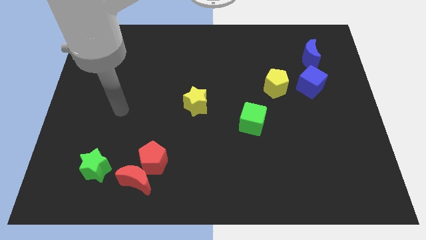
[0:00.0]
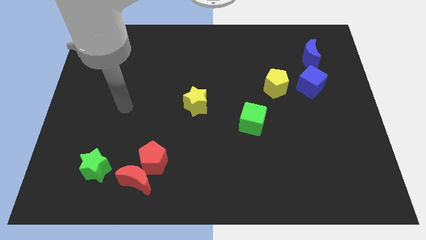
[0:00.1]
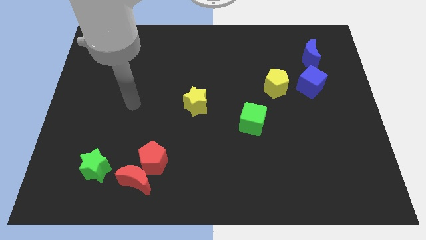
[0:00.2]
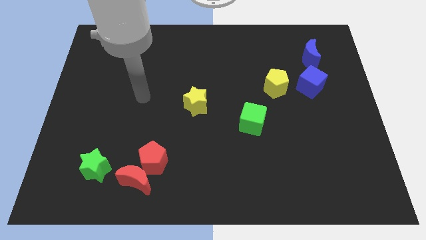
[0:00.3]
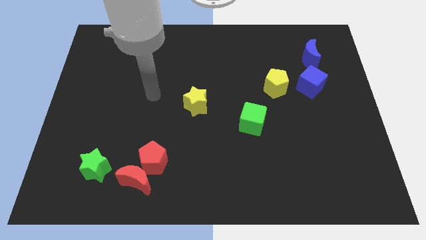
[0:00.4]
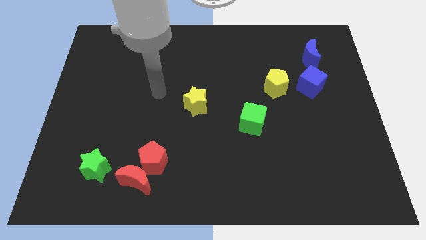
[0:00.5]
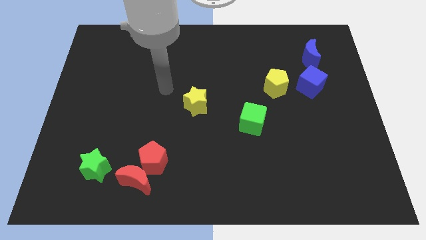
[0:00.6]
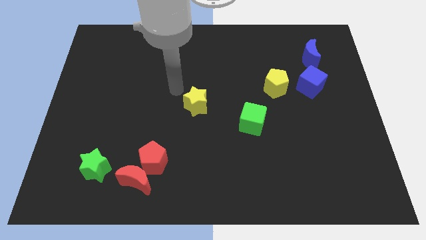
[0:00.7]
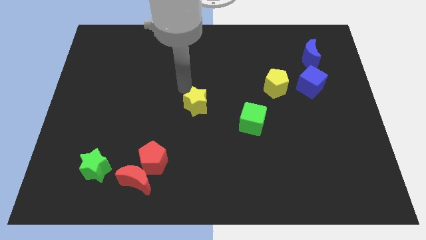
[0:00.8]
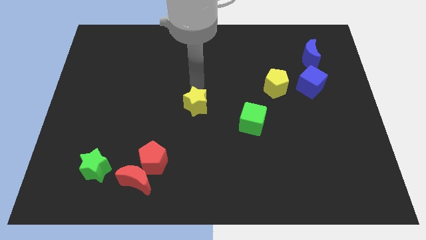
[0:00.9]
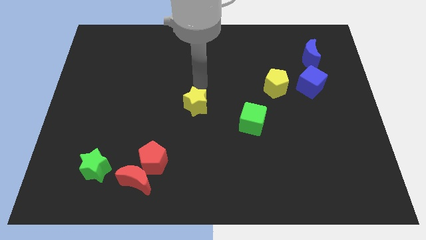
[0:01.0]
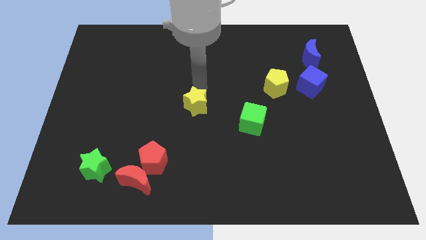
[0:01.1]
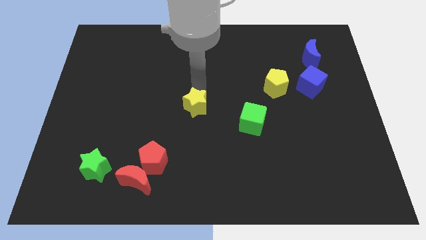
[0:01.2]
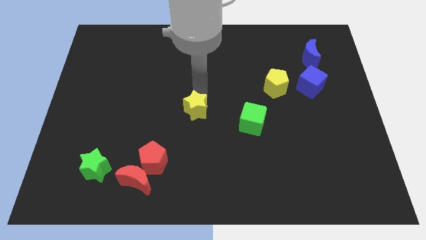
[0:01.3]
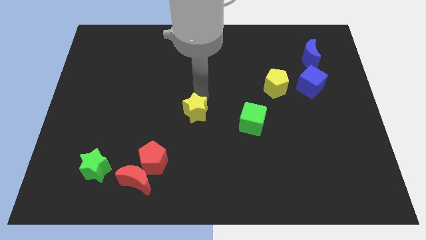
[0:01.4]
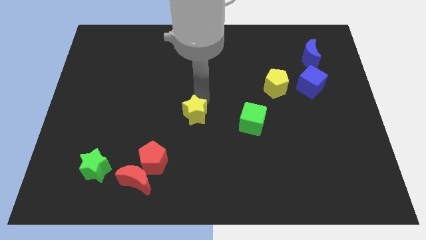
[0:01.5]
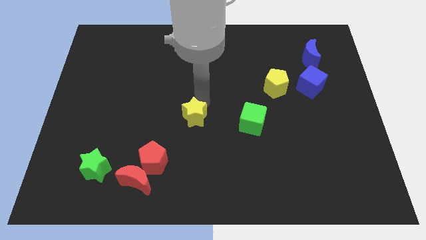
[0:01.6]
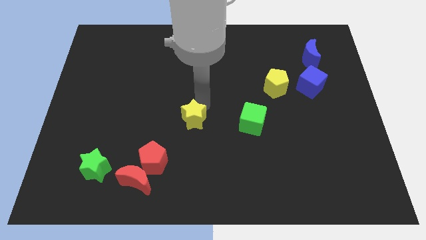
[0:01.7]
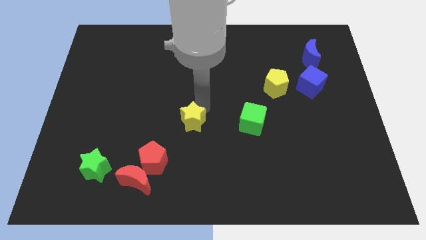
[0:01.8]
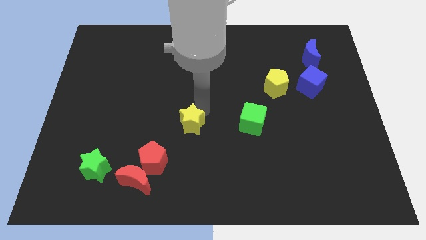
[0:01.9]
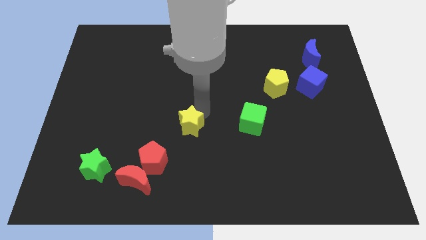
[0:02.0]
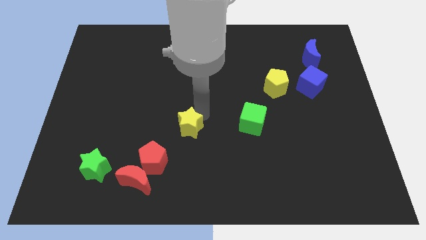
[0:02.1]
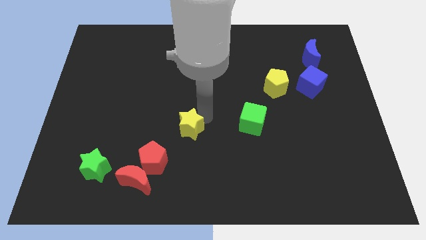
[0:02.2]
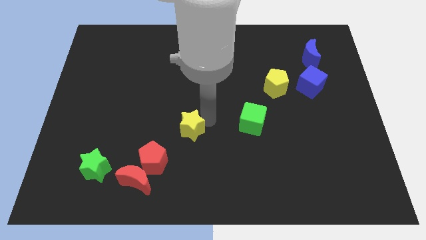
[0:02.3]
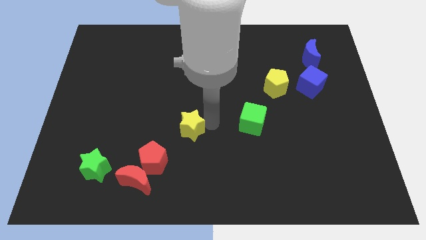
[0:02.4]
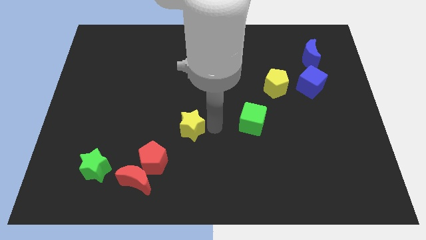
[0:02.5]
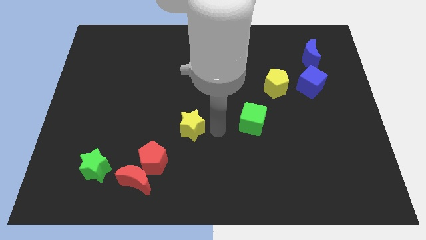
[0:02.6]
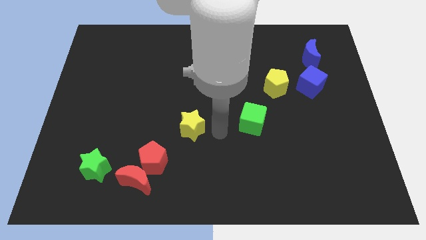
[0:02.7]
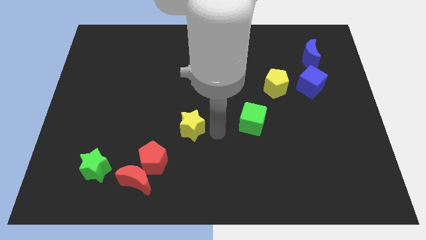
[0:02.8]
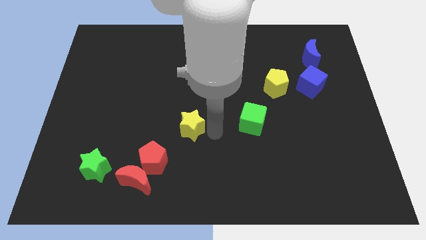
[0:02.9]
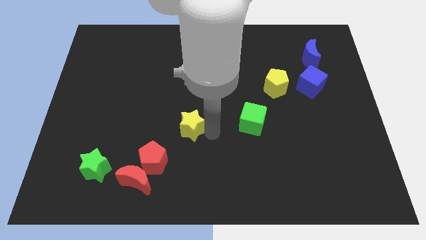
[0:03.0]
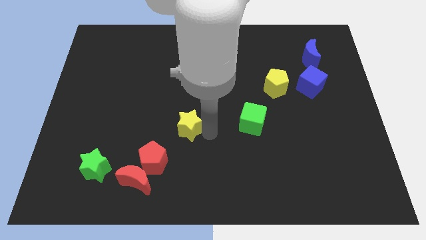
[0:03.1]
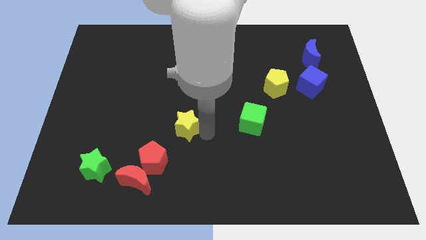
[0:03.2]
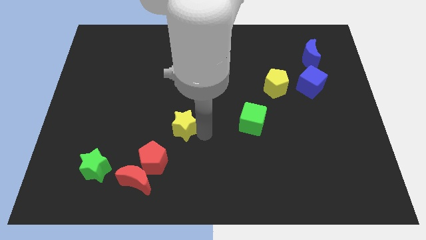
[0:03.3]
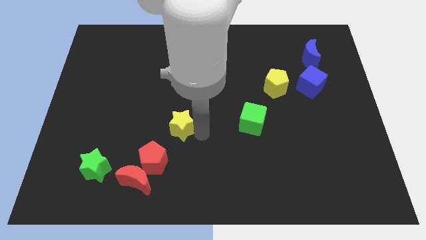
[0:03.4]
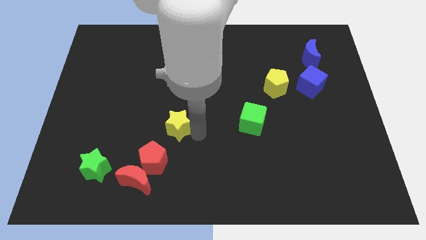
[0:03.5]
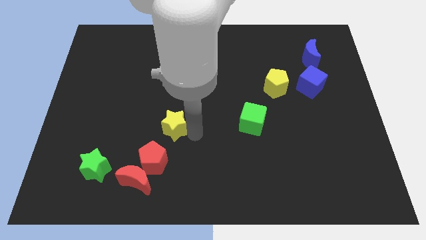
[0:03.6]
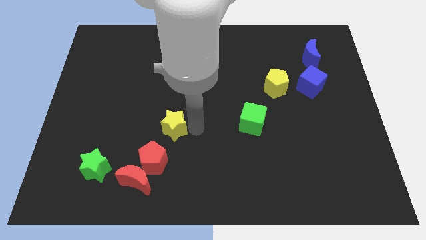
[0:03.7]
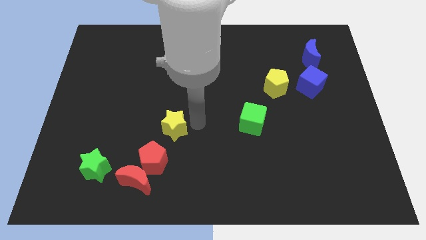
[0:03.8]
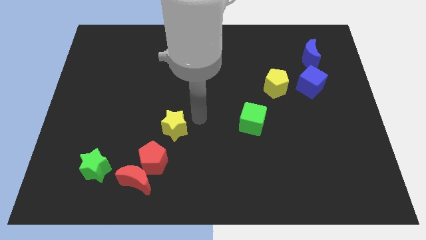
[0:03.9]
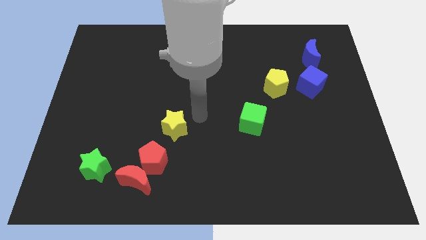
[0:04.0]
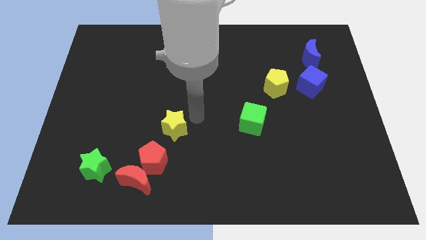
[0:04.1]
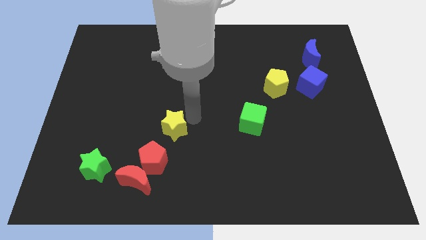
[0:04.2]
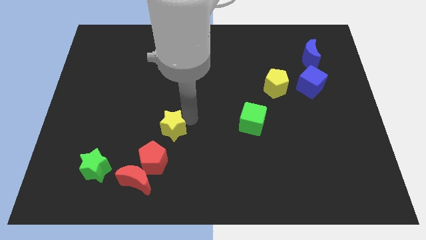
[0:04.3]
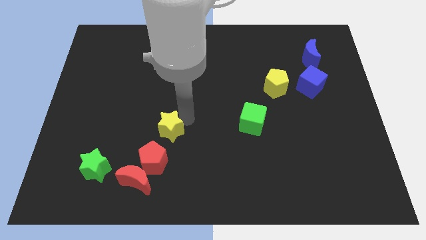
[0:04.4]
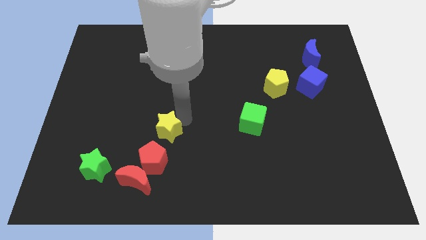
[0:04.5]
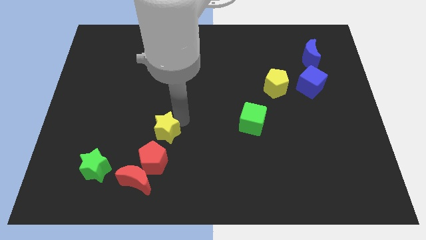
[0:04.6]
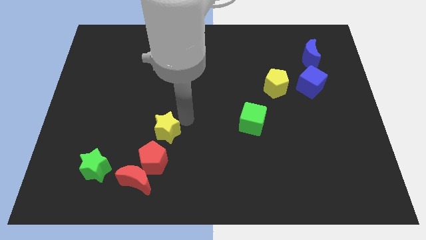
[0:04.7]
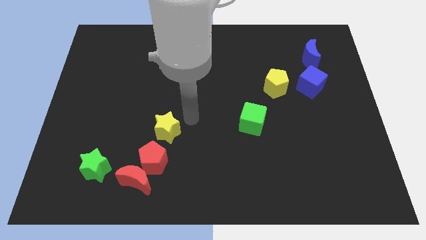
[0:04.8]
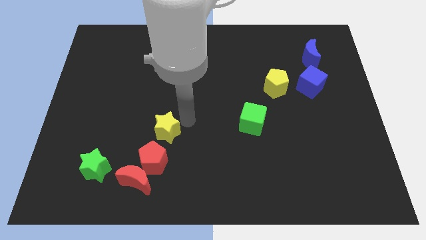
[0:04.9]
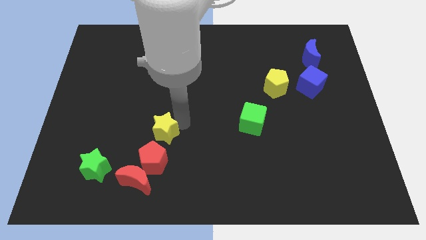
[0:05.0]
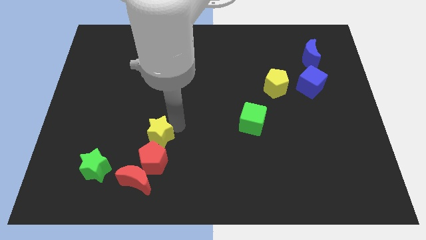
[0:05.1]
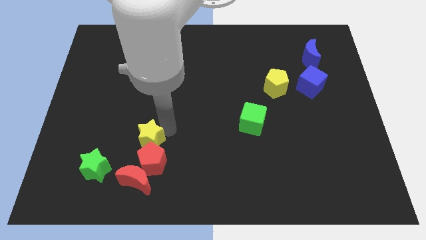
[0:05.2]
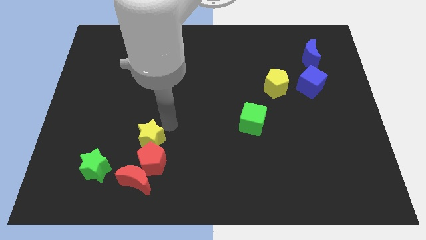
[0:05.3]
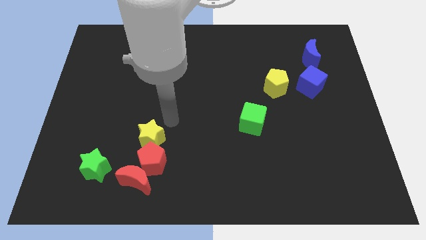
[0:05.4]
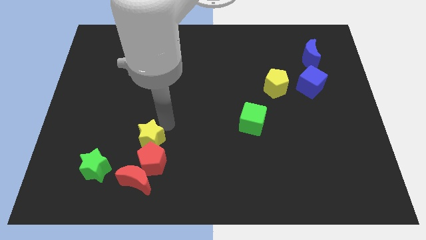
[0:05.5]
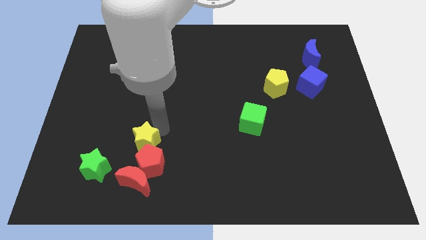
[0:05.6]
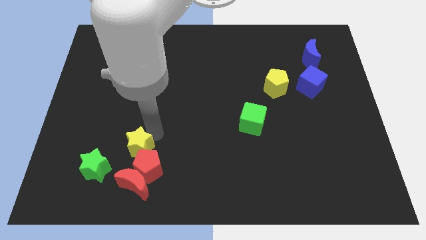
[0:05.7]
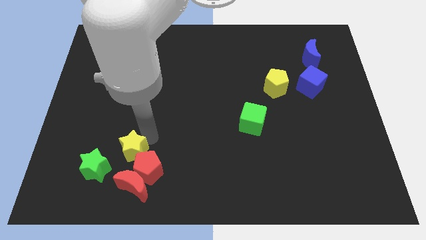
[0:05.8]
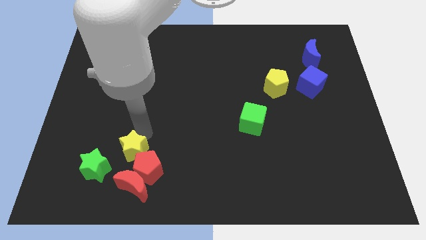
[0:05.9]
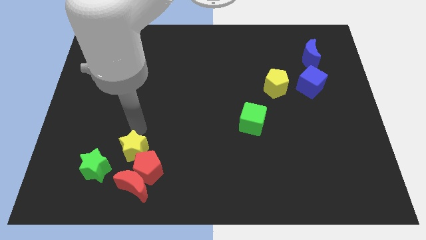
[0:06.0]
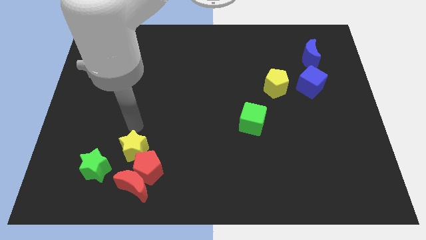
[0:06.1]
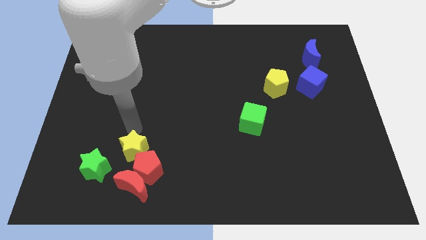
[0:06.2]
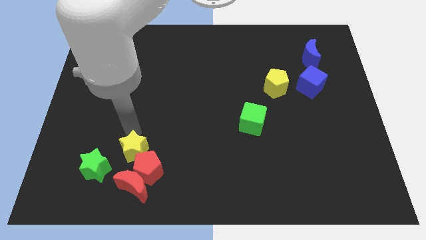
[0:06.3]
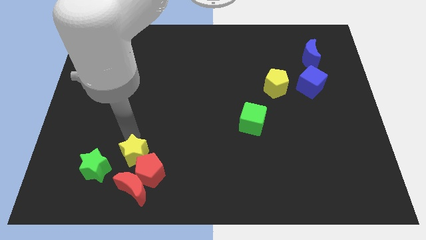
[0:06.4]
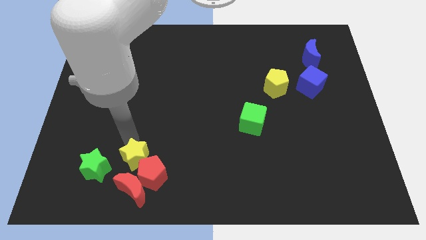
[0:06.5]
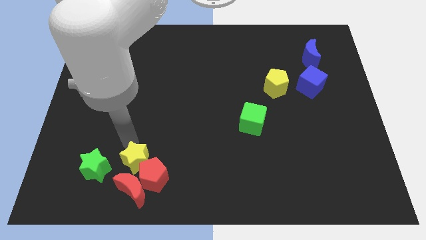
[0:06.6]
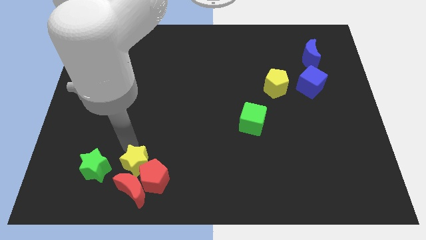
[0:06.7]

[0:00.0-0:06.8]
put the yellow star next to the red moon

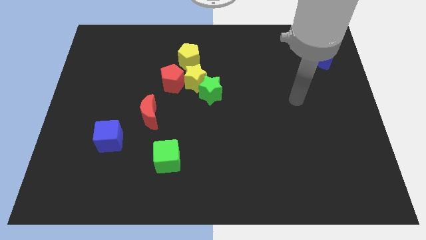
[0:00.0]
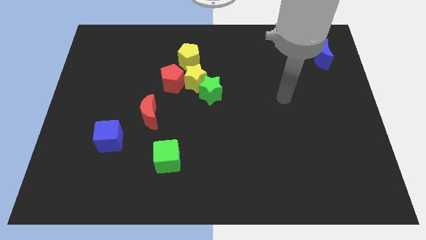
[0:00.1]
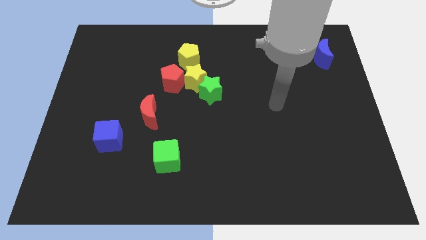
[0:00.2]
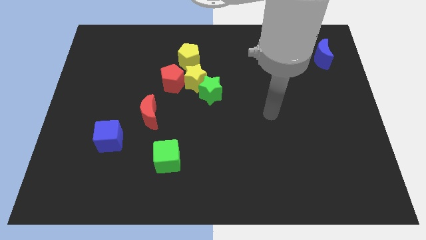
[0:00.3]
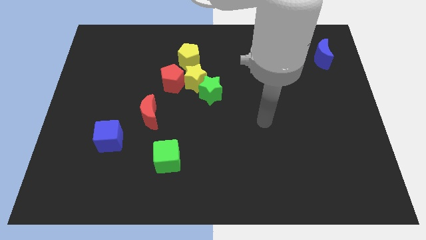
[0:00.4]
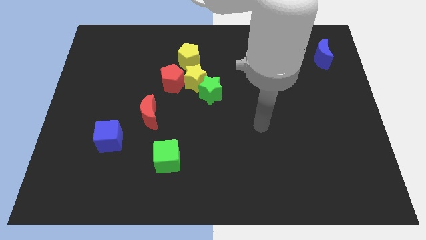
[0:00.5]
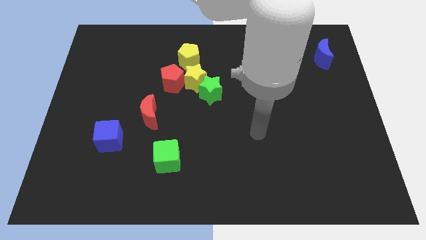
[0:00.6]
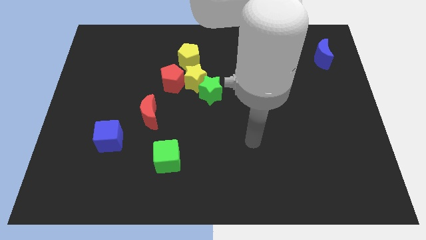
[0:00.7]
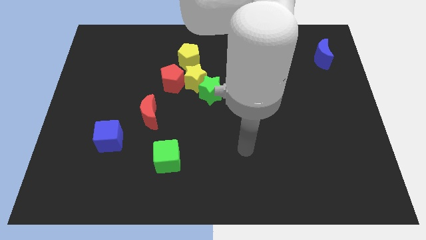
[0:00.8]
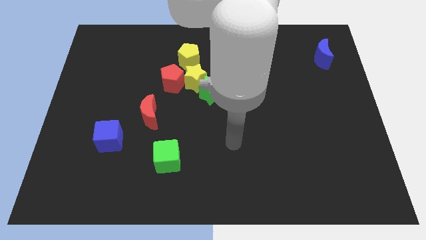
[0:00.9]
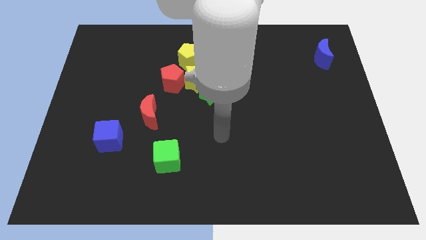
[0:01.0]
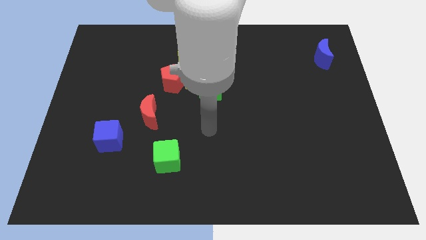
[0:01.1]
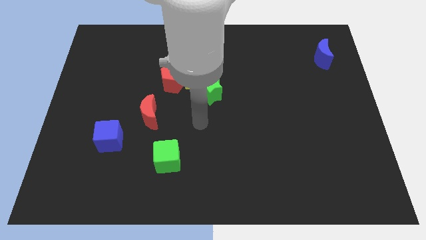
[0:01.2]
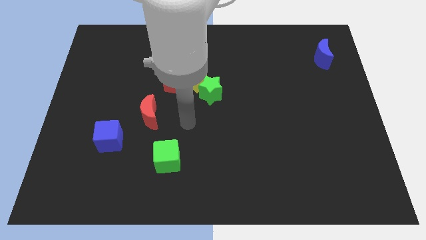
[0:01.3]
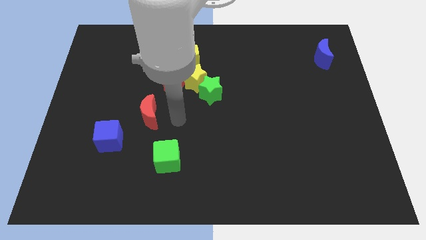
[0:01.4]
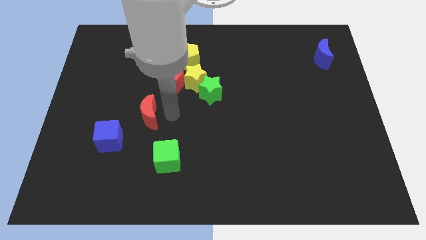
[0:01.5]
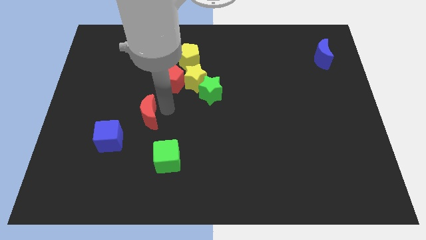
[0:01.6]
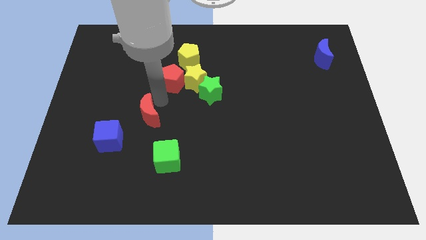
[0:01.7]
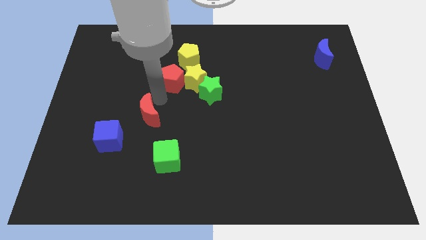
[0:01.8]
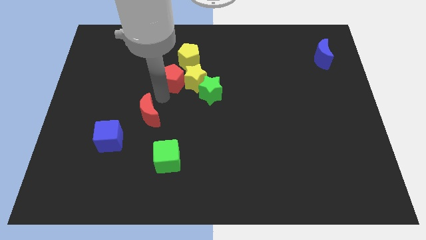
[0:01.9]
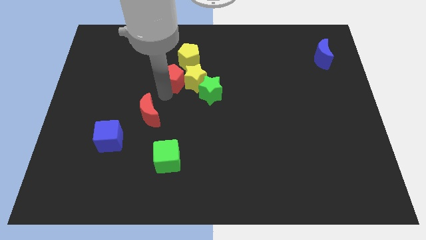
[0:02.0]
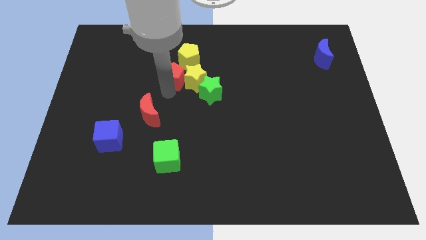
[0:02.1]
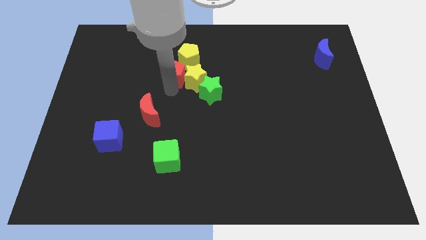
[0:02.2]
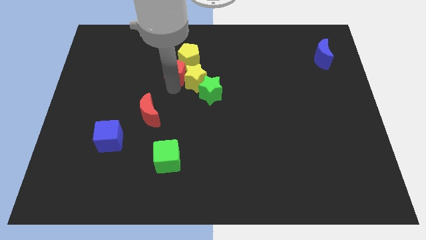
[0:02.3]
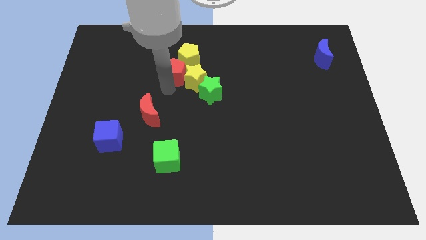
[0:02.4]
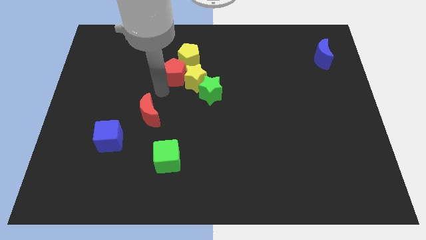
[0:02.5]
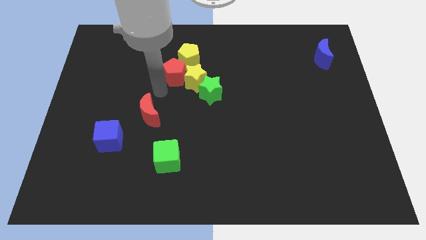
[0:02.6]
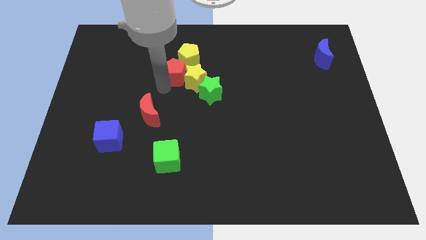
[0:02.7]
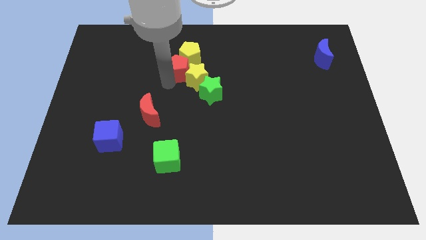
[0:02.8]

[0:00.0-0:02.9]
move the red pentagon close to the yellow pentagon
